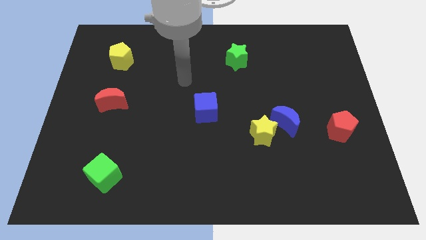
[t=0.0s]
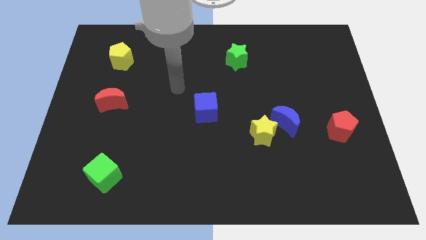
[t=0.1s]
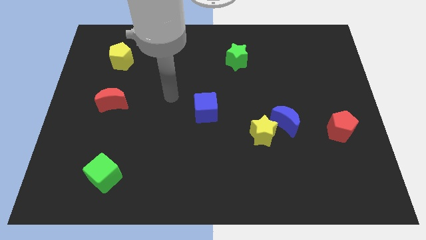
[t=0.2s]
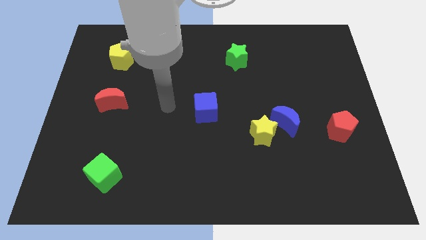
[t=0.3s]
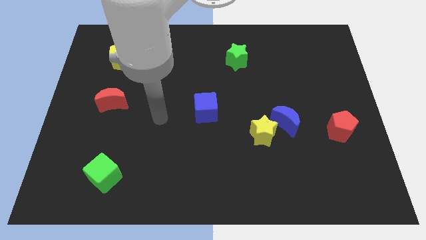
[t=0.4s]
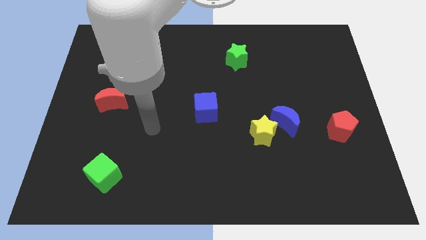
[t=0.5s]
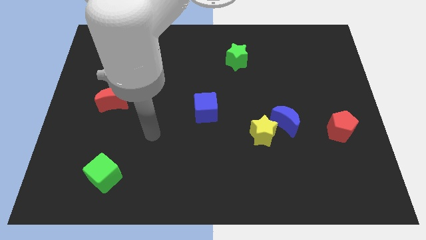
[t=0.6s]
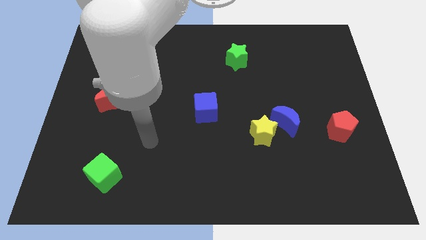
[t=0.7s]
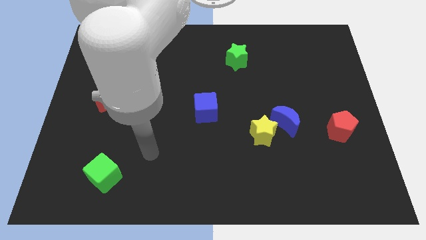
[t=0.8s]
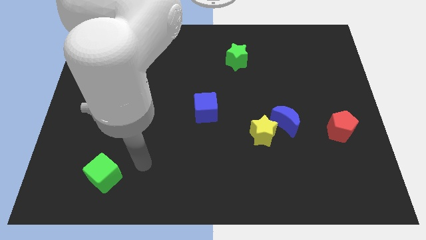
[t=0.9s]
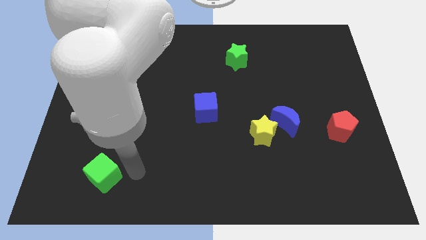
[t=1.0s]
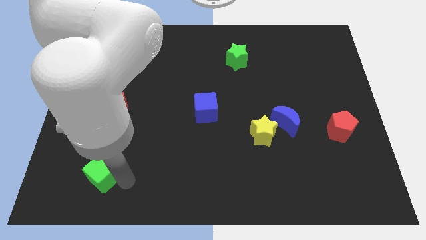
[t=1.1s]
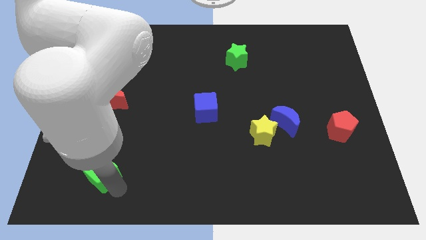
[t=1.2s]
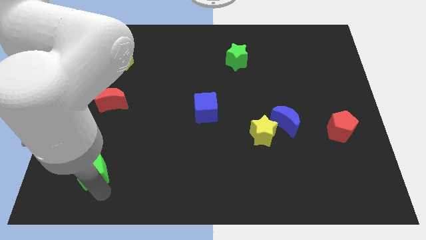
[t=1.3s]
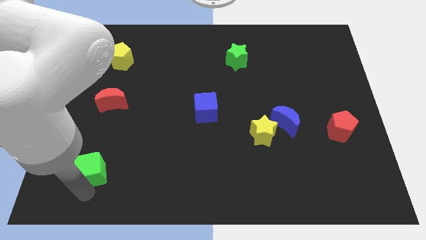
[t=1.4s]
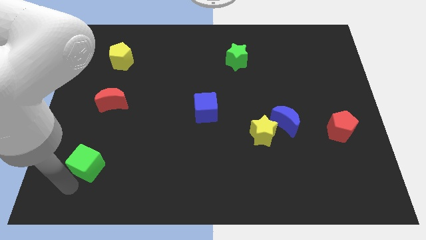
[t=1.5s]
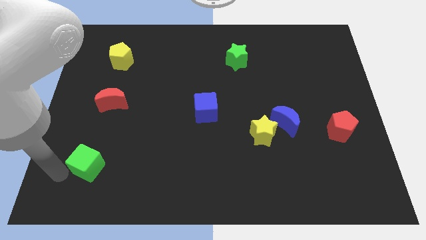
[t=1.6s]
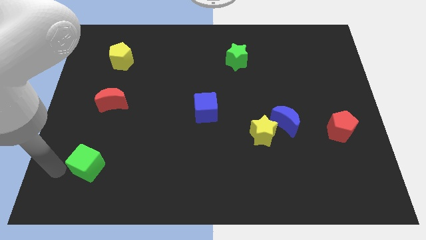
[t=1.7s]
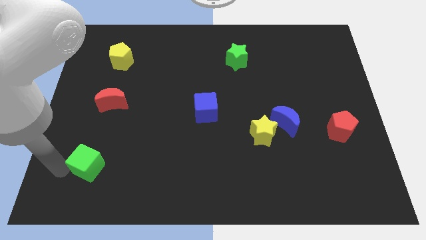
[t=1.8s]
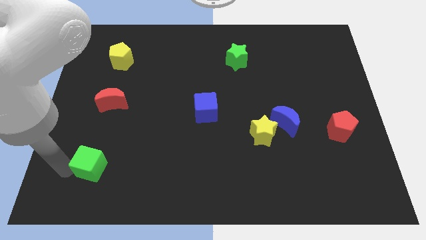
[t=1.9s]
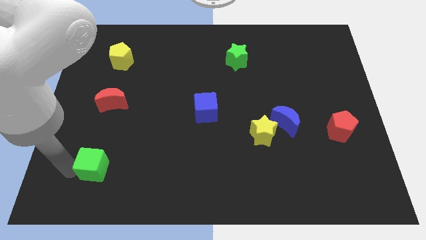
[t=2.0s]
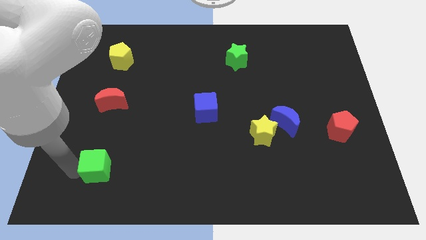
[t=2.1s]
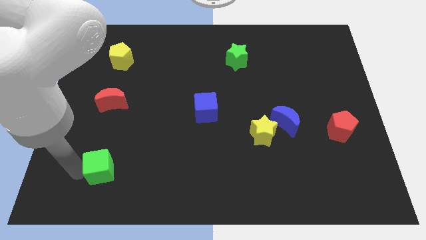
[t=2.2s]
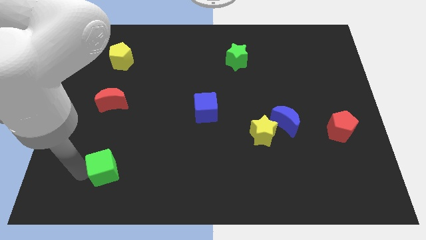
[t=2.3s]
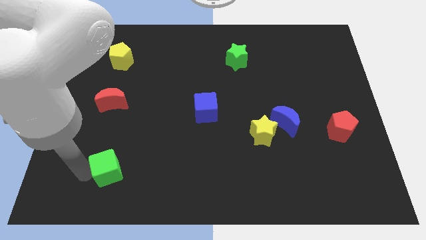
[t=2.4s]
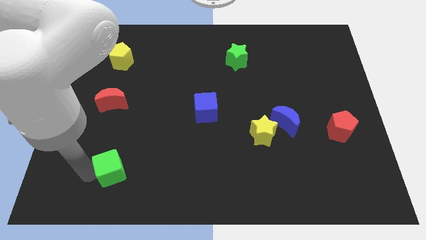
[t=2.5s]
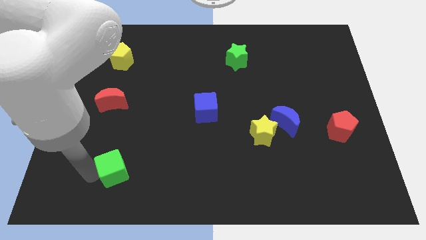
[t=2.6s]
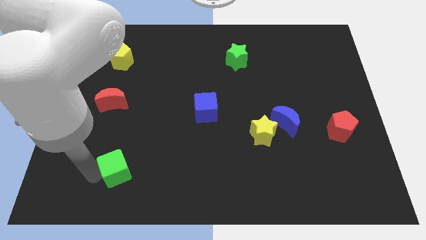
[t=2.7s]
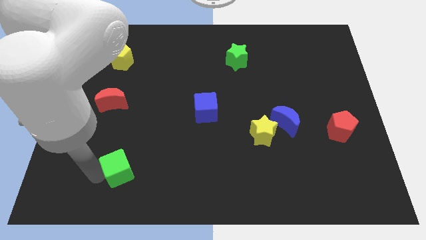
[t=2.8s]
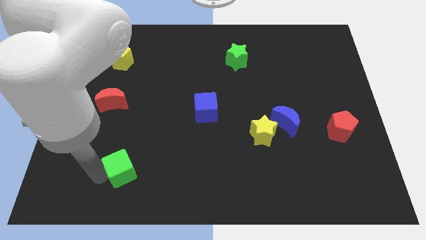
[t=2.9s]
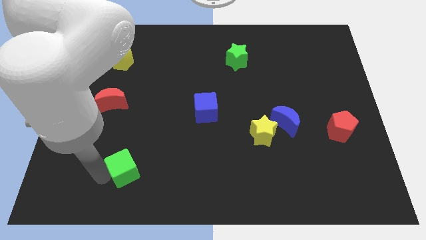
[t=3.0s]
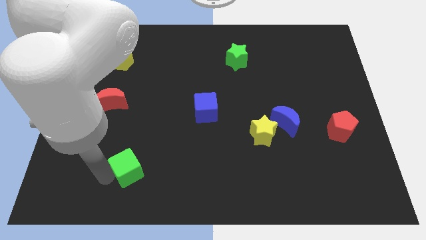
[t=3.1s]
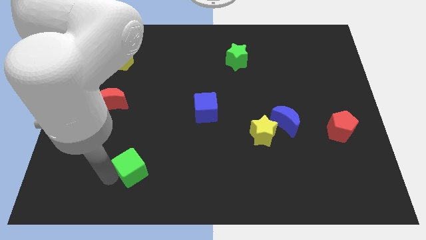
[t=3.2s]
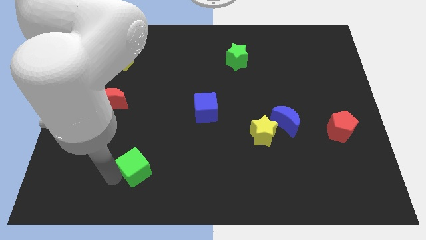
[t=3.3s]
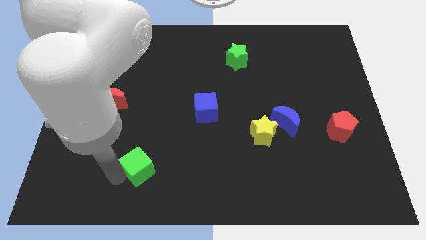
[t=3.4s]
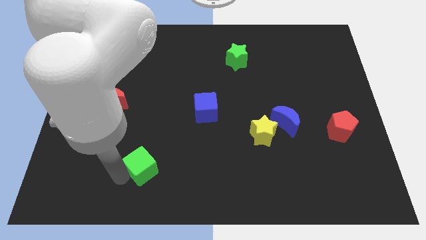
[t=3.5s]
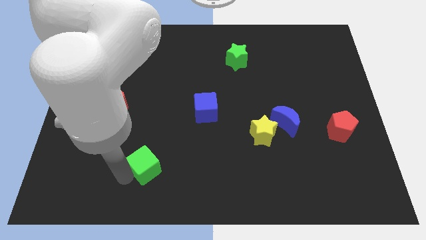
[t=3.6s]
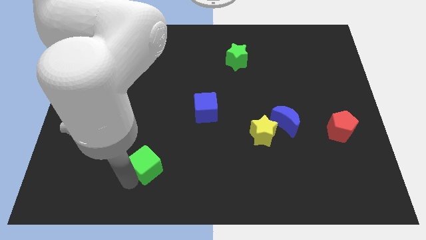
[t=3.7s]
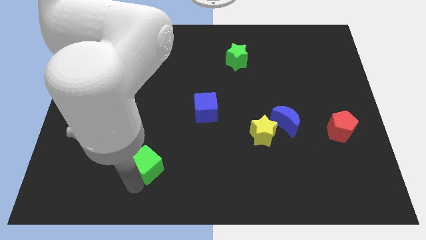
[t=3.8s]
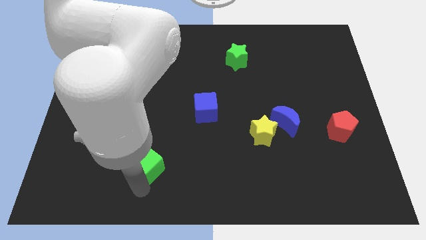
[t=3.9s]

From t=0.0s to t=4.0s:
push the green cube slightly upwards and then to the right

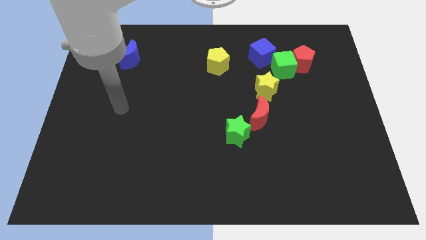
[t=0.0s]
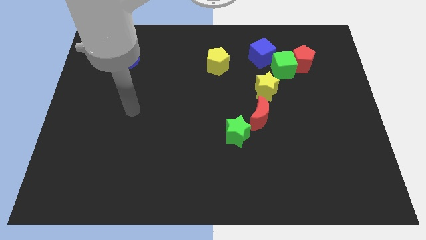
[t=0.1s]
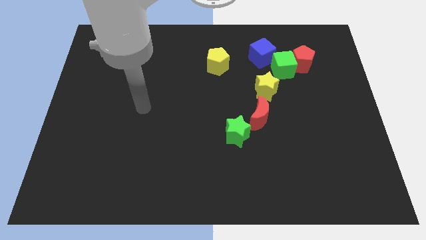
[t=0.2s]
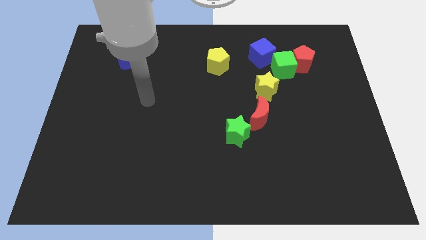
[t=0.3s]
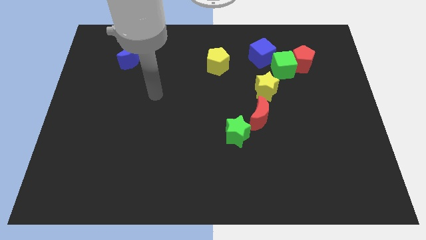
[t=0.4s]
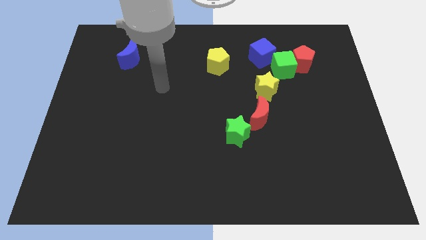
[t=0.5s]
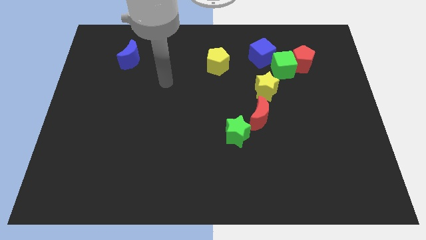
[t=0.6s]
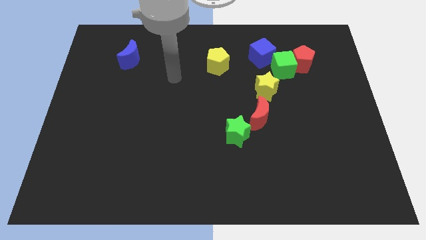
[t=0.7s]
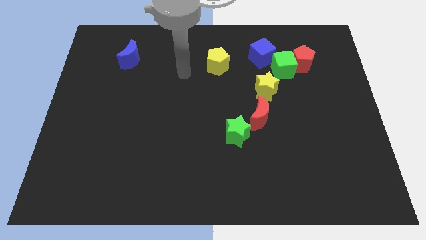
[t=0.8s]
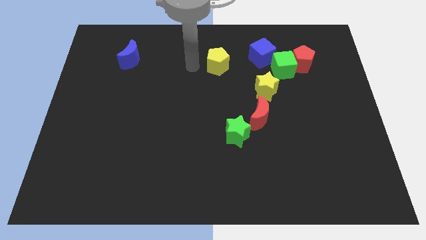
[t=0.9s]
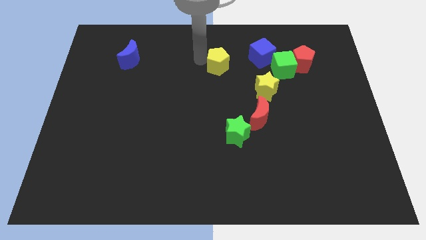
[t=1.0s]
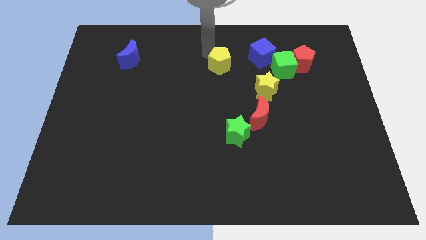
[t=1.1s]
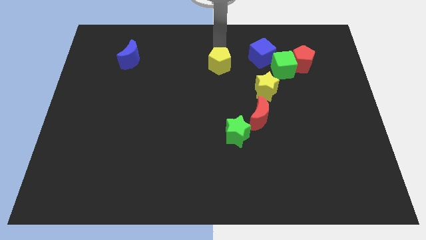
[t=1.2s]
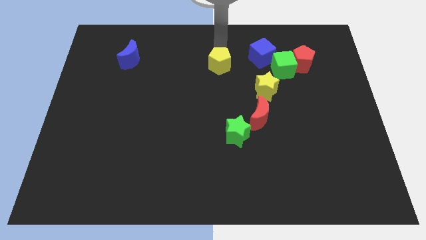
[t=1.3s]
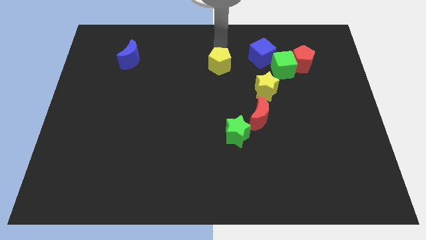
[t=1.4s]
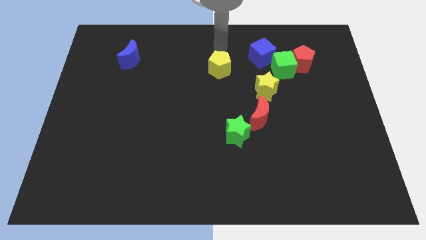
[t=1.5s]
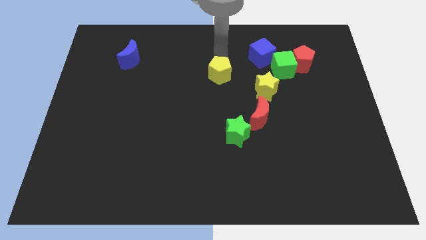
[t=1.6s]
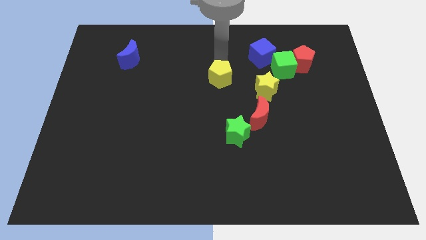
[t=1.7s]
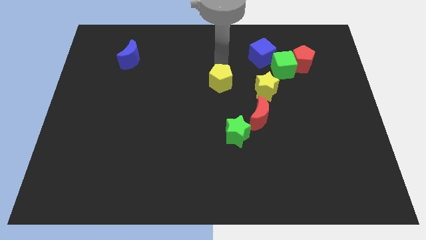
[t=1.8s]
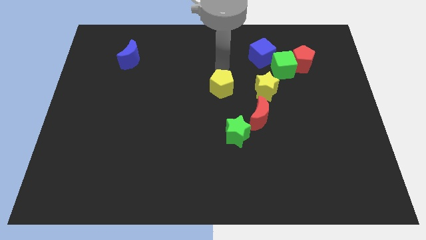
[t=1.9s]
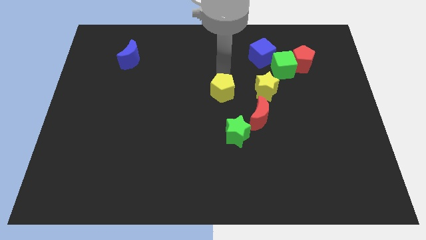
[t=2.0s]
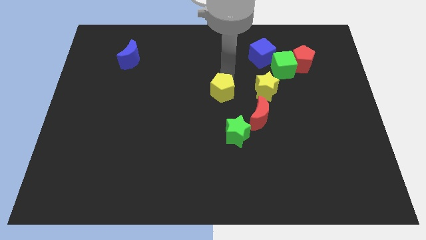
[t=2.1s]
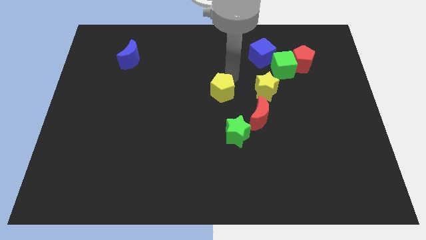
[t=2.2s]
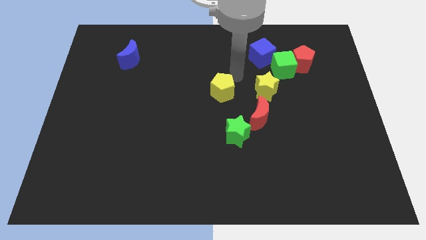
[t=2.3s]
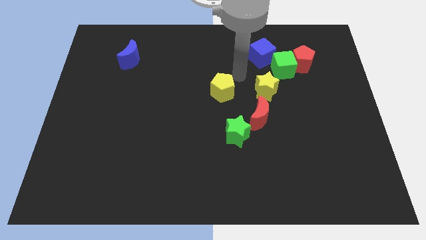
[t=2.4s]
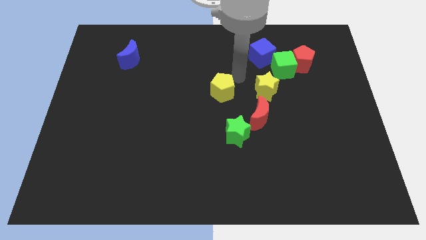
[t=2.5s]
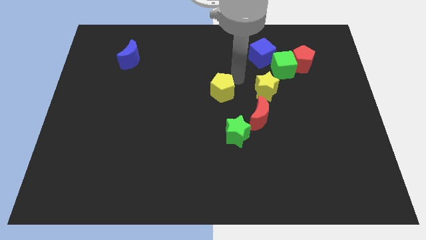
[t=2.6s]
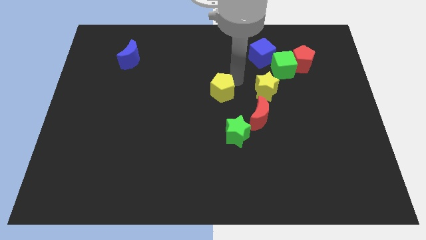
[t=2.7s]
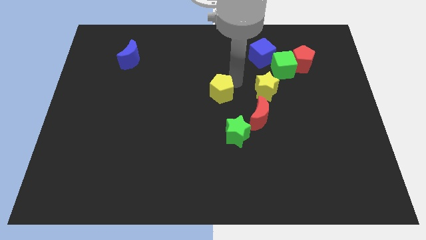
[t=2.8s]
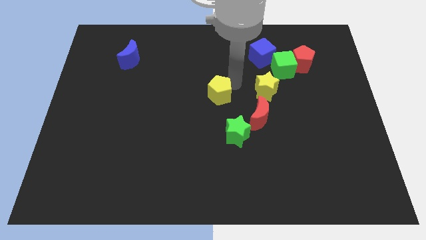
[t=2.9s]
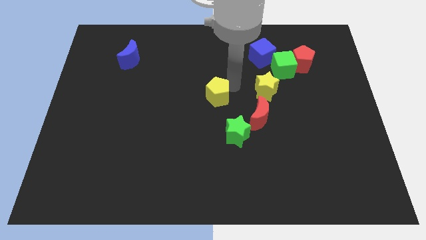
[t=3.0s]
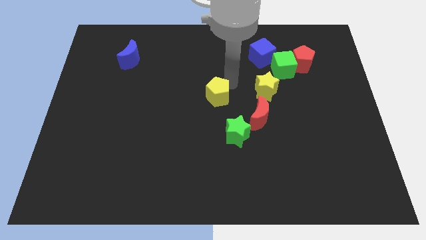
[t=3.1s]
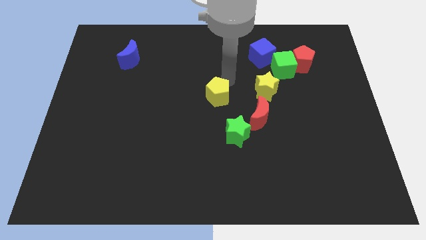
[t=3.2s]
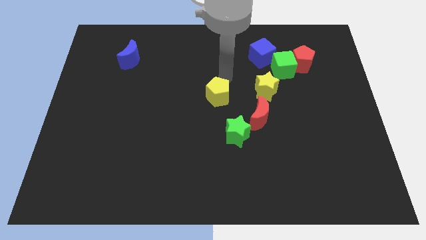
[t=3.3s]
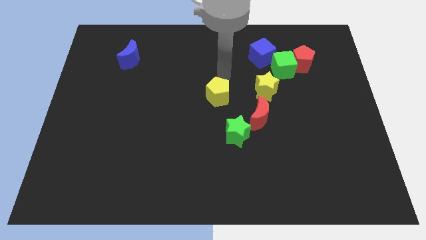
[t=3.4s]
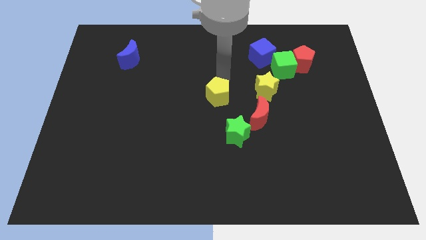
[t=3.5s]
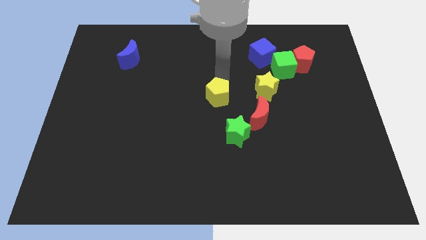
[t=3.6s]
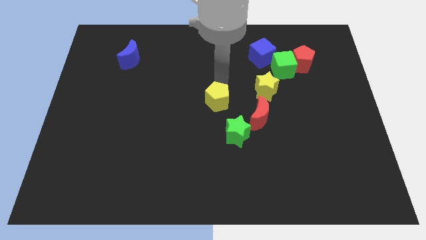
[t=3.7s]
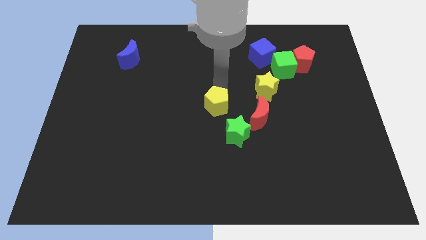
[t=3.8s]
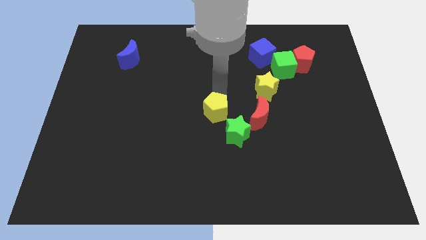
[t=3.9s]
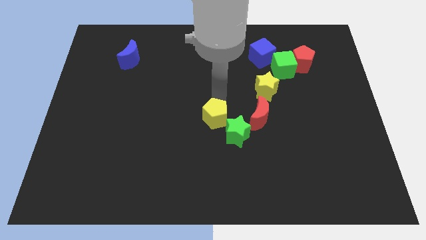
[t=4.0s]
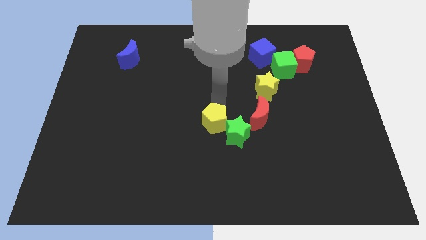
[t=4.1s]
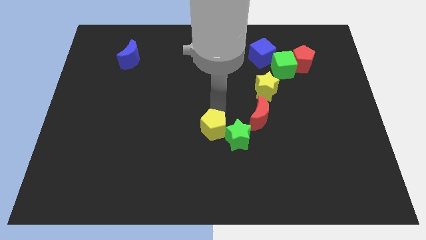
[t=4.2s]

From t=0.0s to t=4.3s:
move the yellow pentagon down
